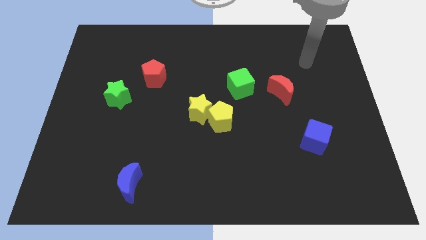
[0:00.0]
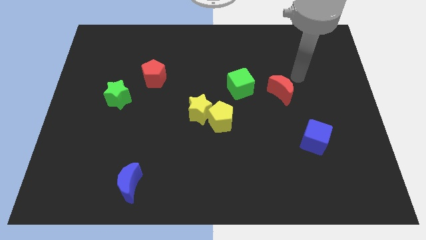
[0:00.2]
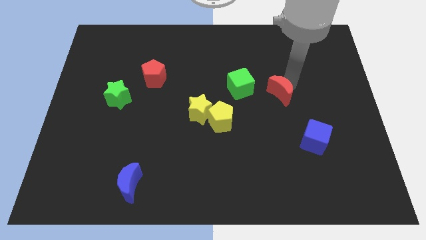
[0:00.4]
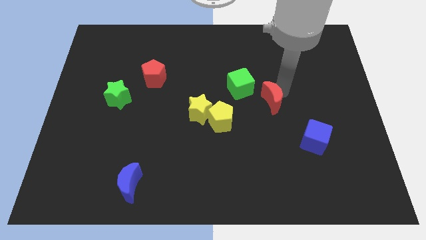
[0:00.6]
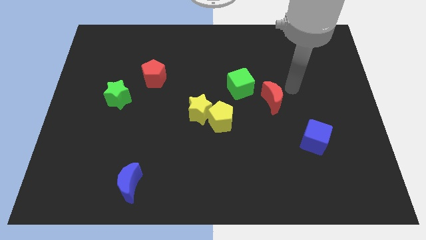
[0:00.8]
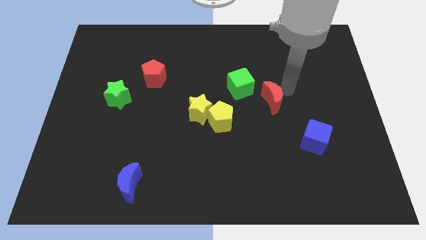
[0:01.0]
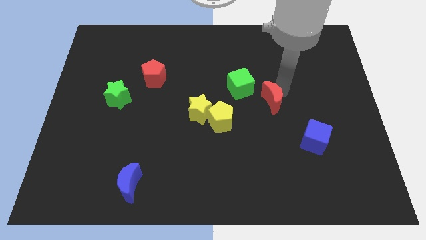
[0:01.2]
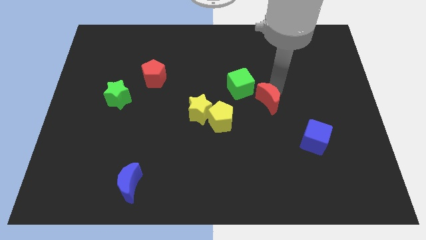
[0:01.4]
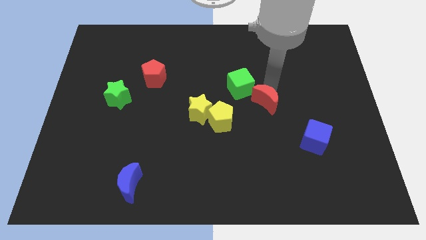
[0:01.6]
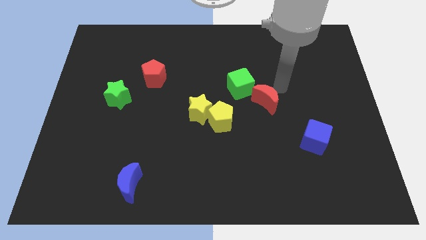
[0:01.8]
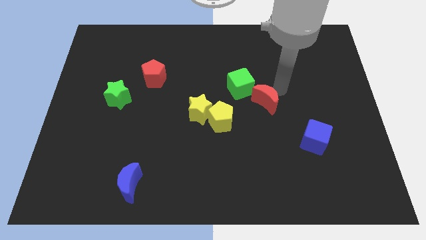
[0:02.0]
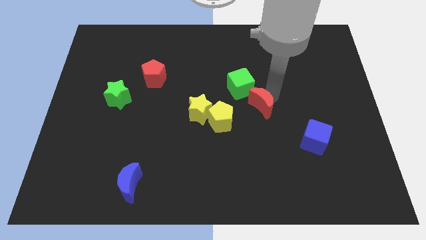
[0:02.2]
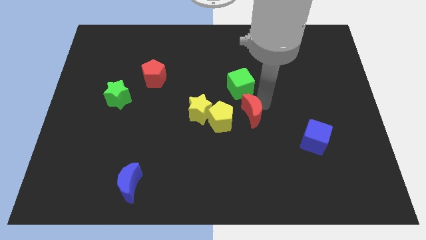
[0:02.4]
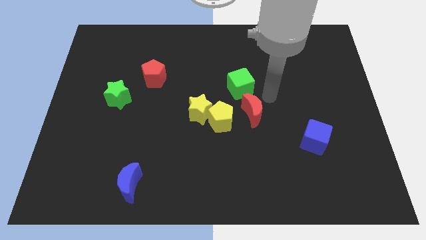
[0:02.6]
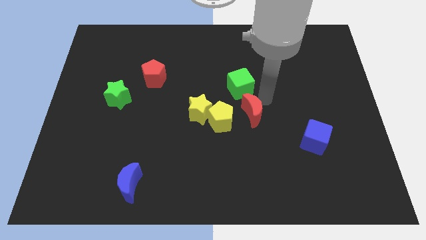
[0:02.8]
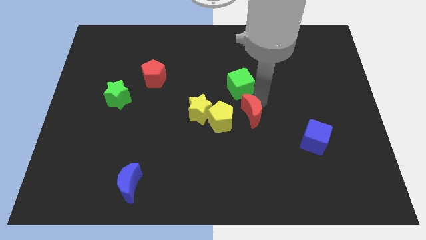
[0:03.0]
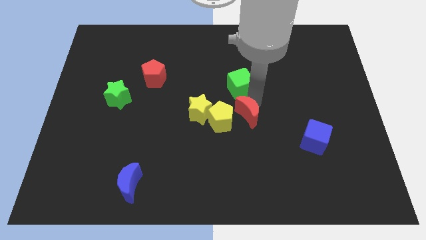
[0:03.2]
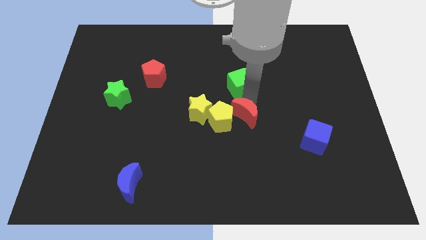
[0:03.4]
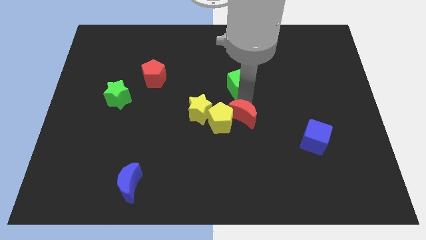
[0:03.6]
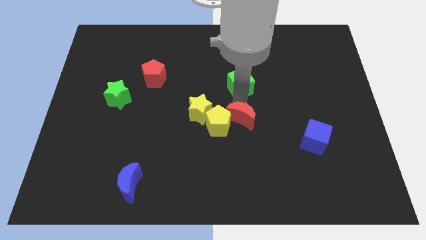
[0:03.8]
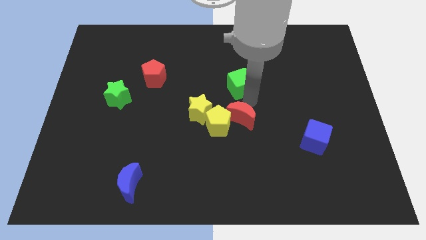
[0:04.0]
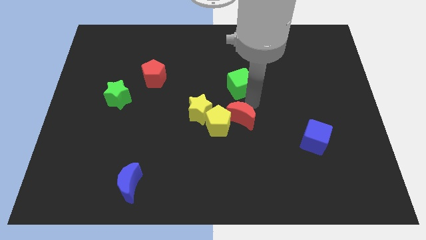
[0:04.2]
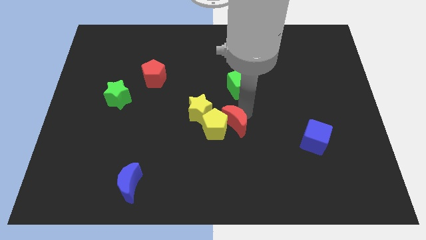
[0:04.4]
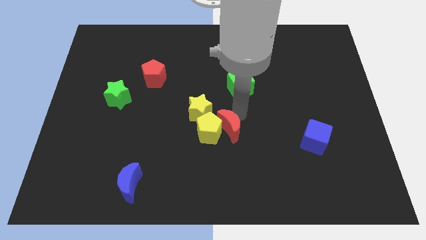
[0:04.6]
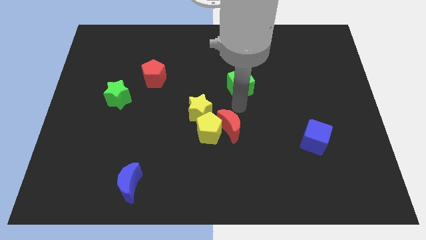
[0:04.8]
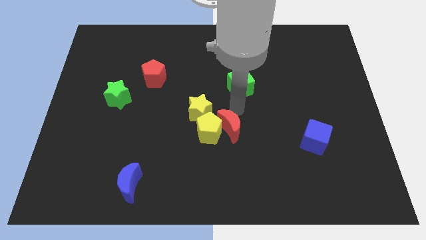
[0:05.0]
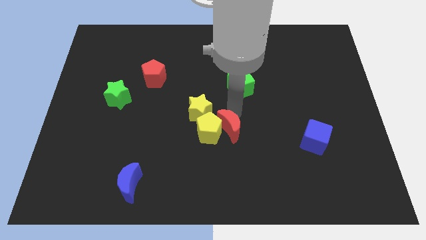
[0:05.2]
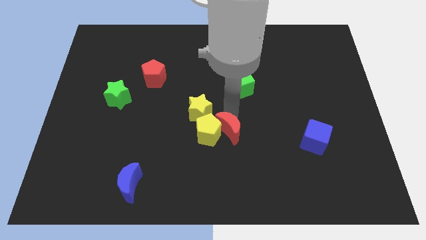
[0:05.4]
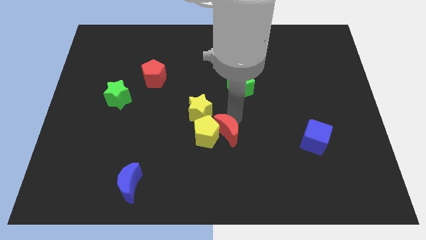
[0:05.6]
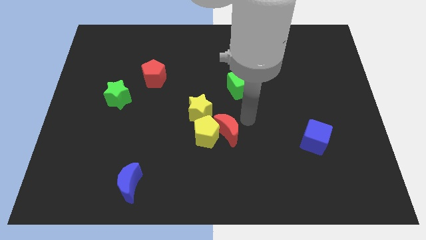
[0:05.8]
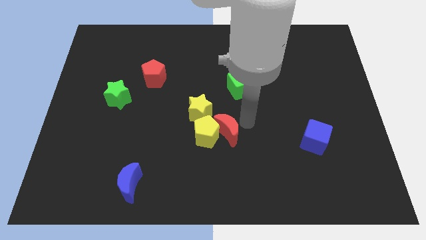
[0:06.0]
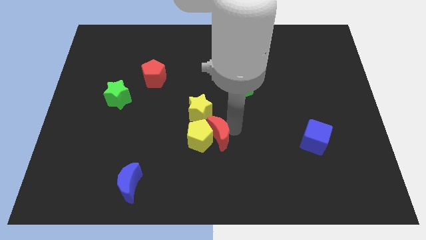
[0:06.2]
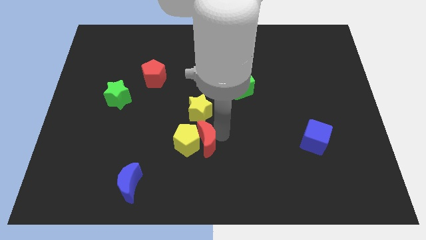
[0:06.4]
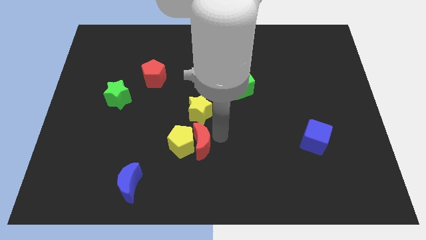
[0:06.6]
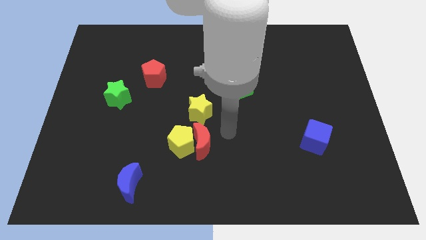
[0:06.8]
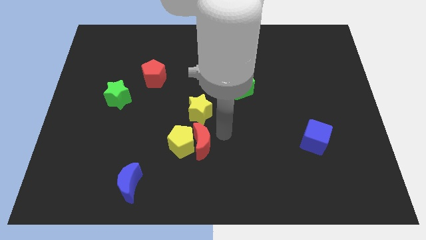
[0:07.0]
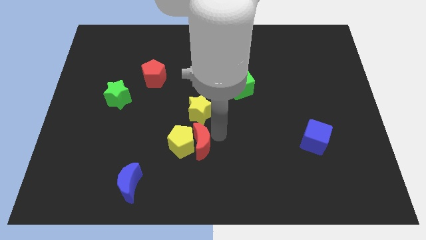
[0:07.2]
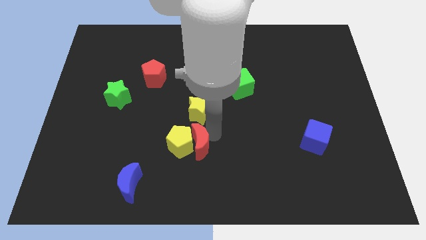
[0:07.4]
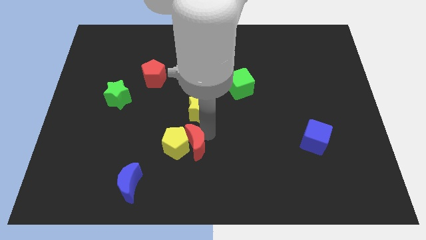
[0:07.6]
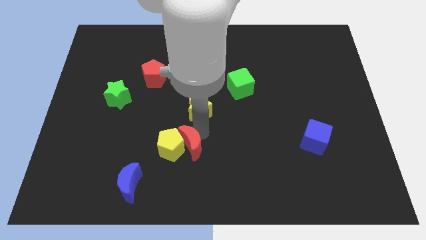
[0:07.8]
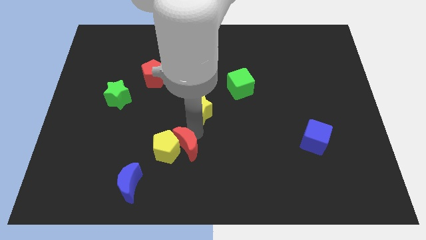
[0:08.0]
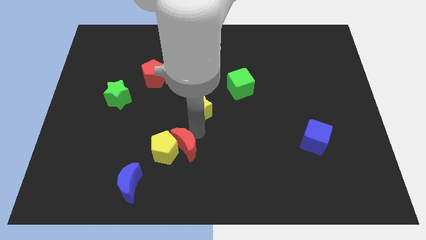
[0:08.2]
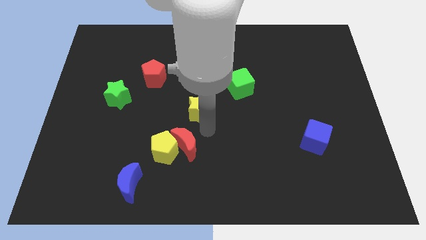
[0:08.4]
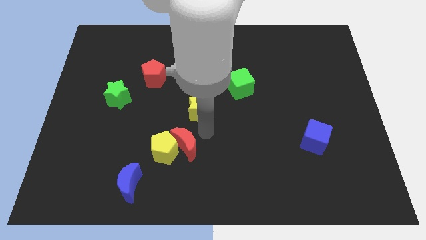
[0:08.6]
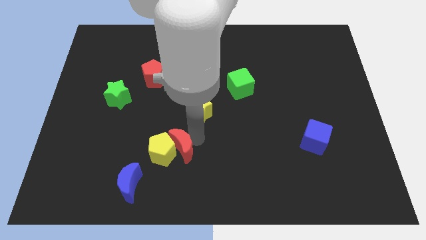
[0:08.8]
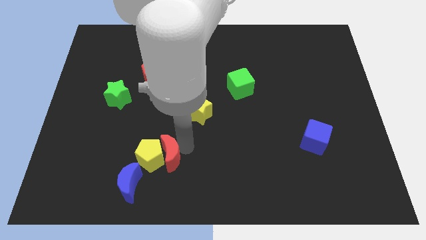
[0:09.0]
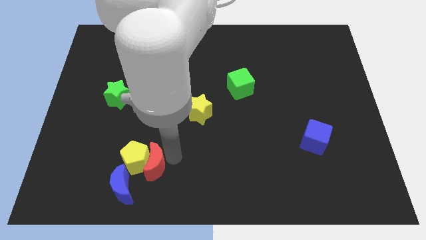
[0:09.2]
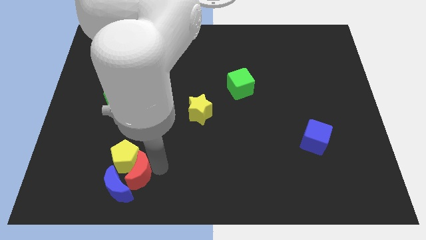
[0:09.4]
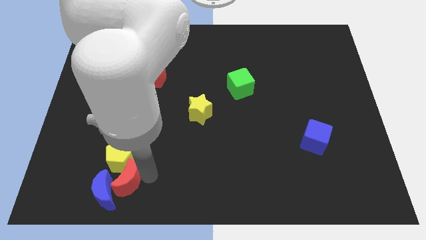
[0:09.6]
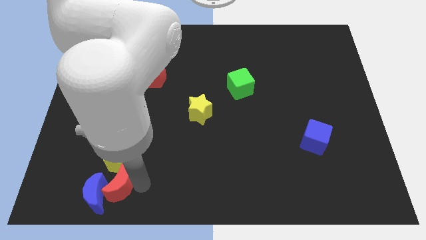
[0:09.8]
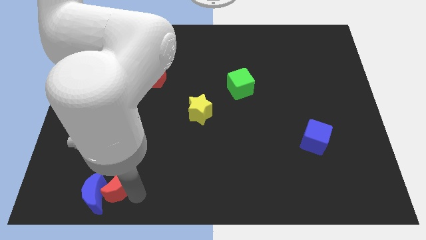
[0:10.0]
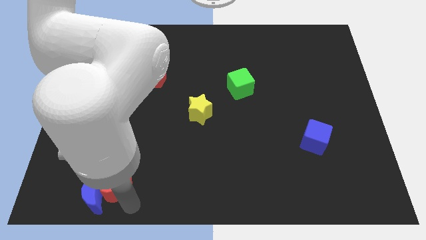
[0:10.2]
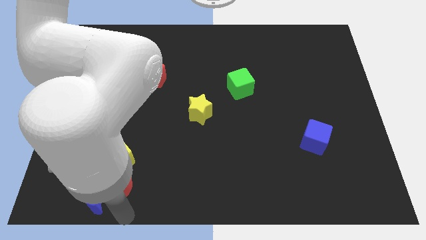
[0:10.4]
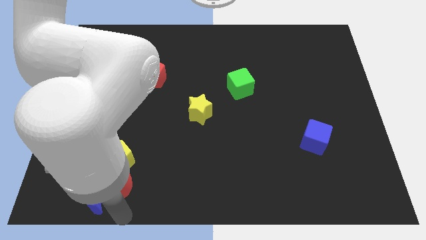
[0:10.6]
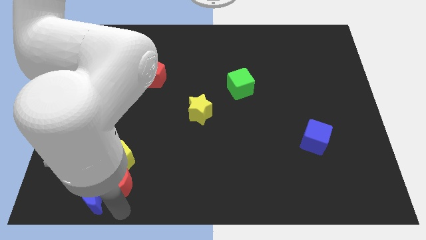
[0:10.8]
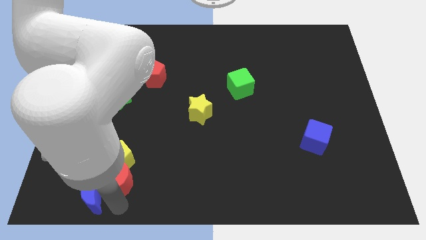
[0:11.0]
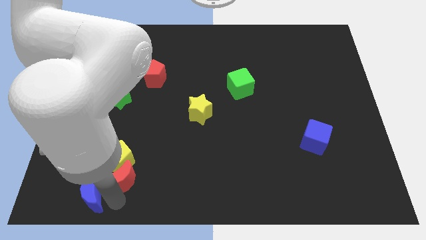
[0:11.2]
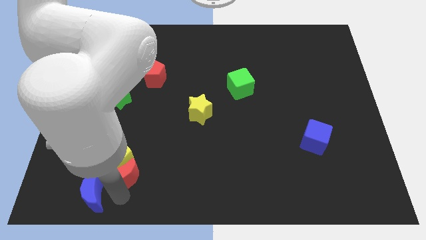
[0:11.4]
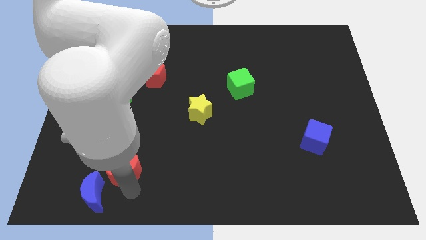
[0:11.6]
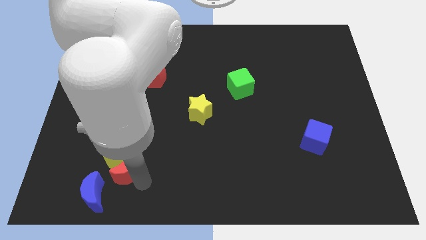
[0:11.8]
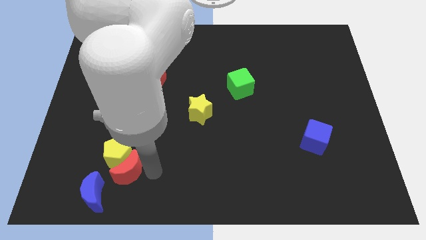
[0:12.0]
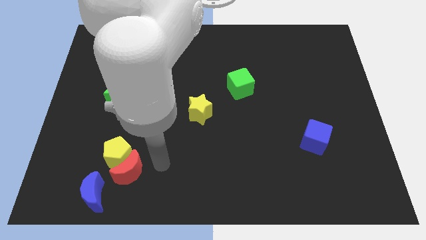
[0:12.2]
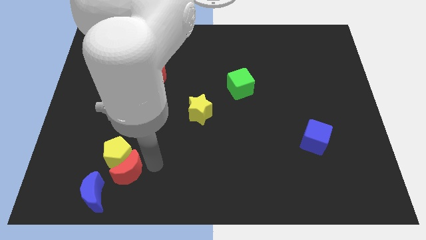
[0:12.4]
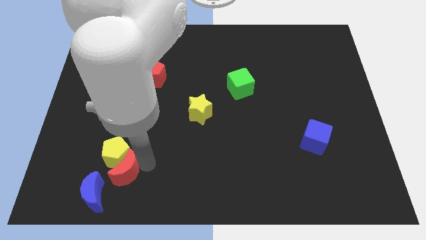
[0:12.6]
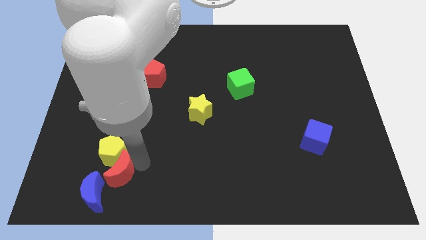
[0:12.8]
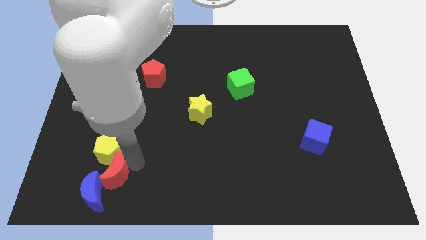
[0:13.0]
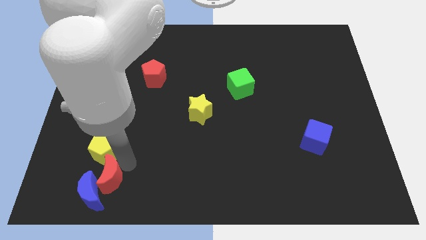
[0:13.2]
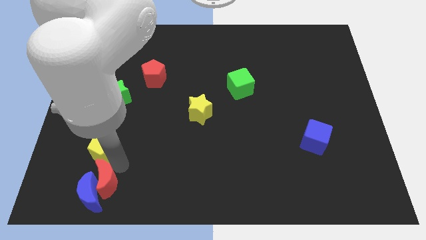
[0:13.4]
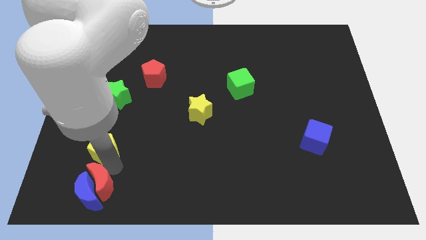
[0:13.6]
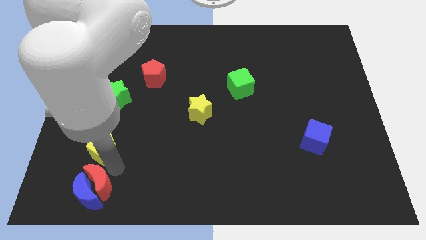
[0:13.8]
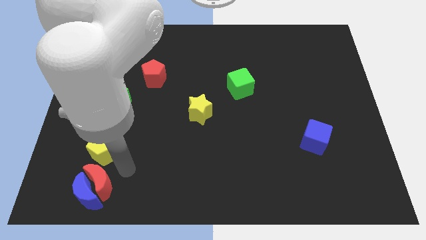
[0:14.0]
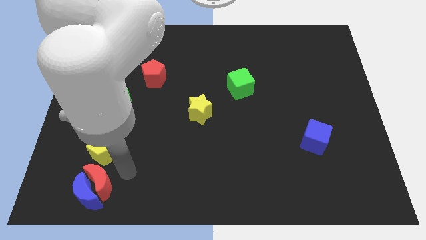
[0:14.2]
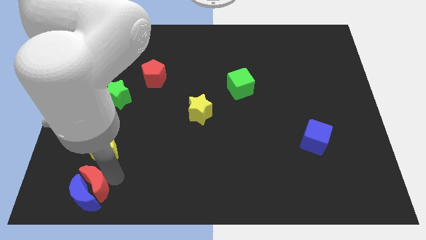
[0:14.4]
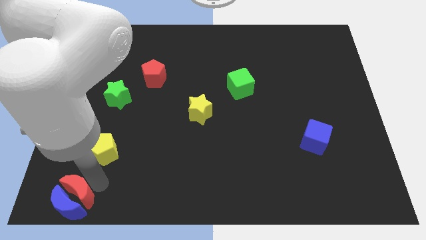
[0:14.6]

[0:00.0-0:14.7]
put the red moon to the bottom left
